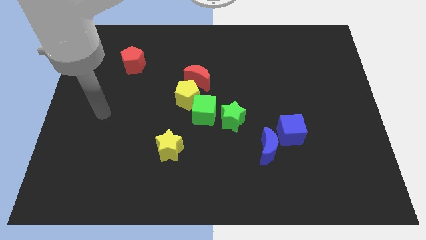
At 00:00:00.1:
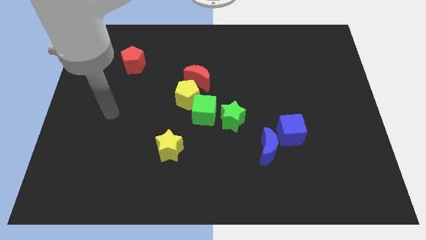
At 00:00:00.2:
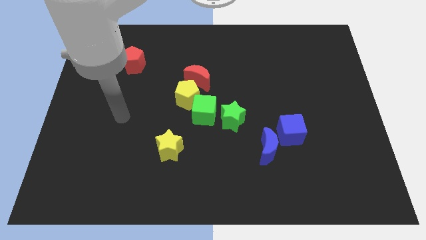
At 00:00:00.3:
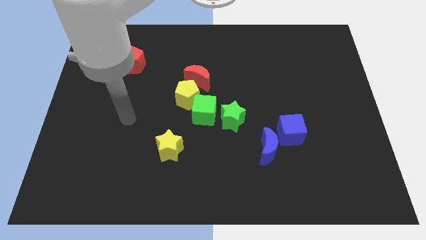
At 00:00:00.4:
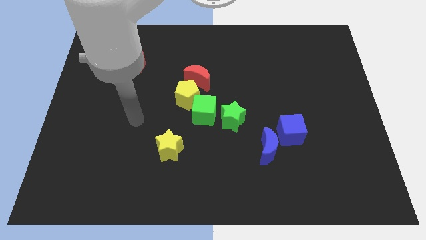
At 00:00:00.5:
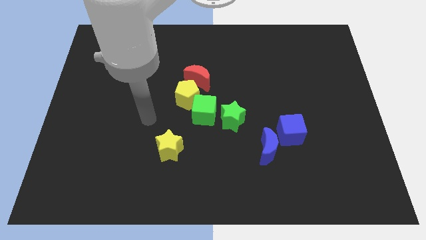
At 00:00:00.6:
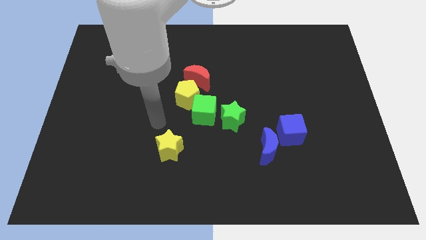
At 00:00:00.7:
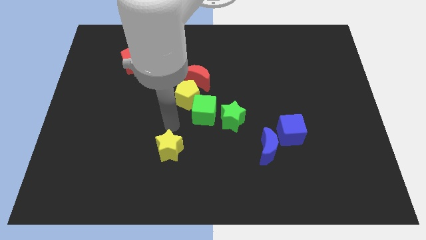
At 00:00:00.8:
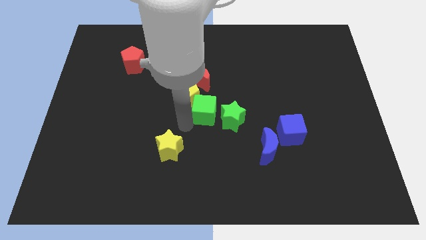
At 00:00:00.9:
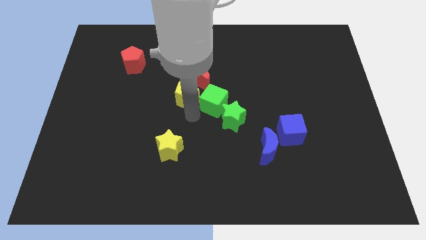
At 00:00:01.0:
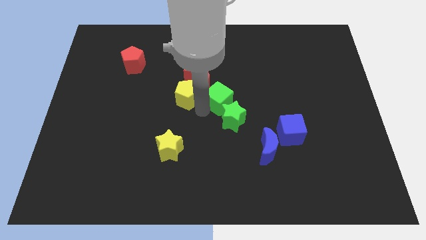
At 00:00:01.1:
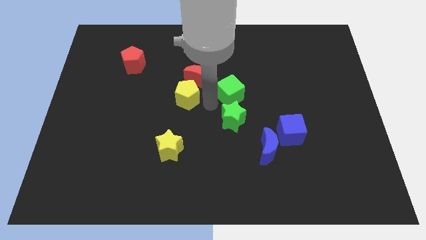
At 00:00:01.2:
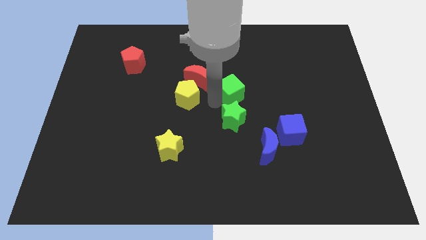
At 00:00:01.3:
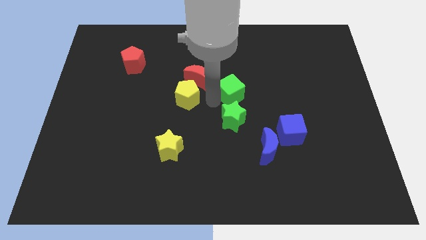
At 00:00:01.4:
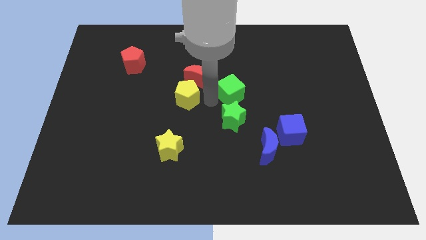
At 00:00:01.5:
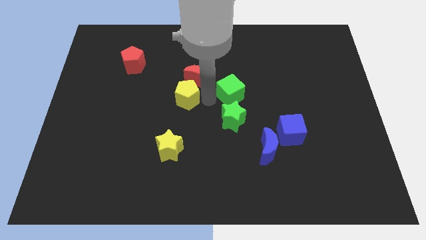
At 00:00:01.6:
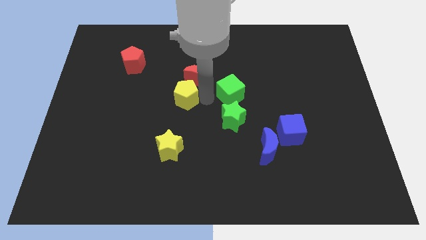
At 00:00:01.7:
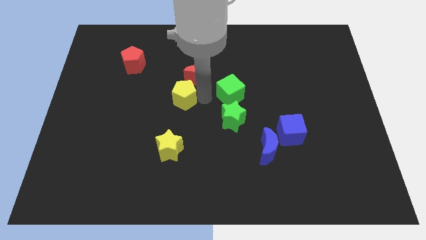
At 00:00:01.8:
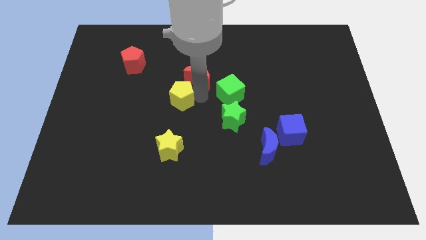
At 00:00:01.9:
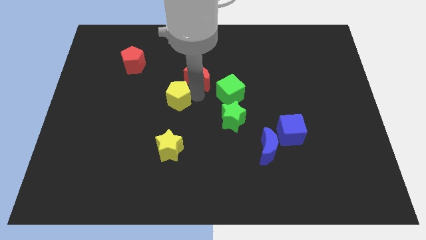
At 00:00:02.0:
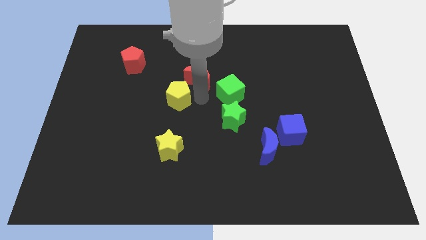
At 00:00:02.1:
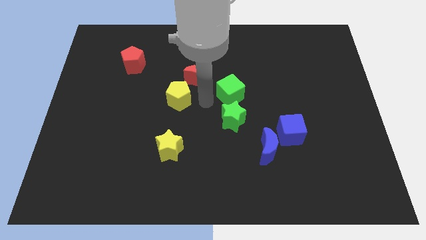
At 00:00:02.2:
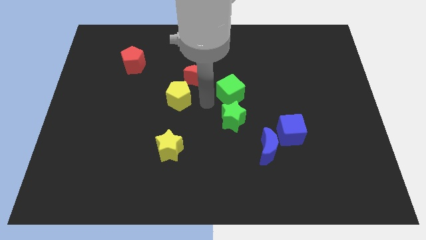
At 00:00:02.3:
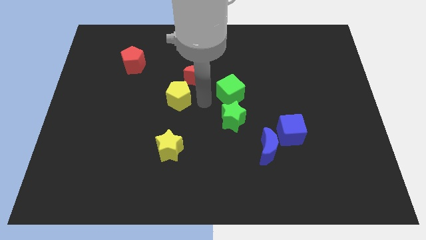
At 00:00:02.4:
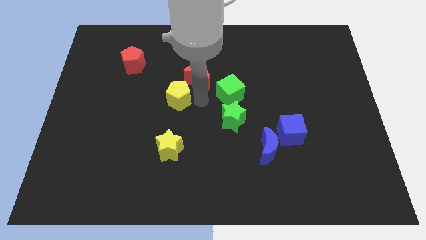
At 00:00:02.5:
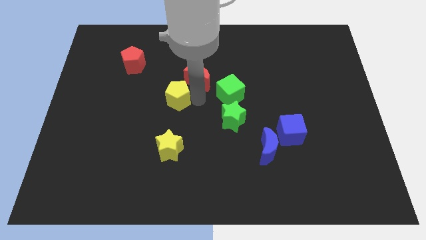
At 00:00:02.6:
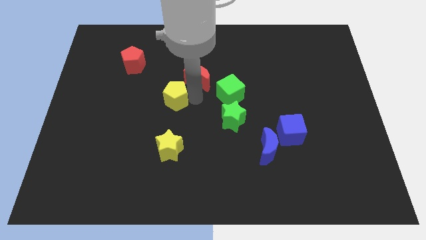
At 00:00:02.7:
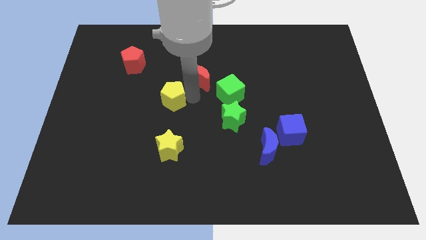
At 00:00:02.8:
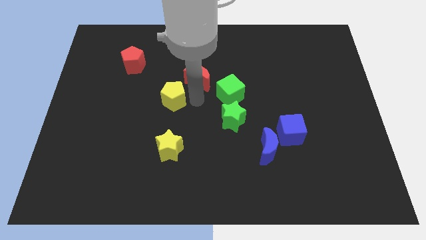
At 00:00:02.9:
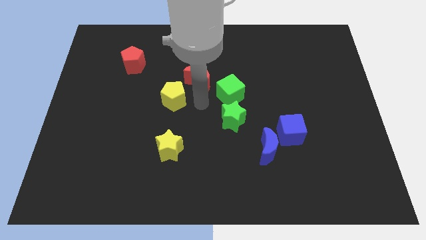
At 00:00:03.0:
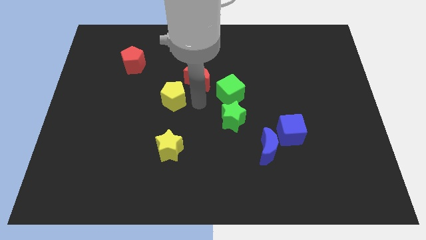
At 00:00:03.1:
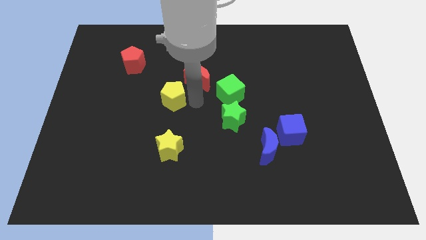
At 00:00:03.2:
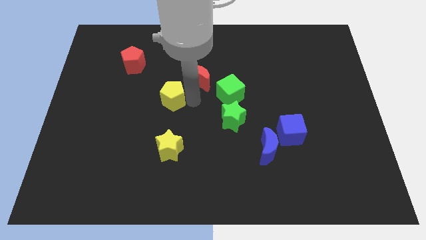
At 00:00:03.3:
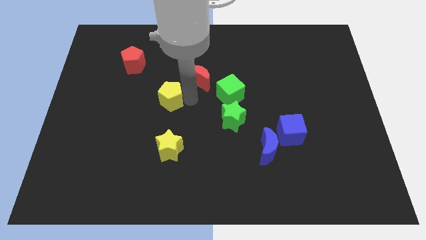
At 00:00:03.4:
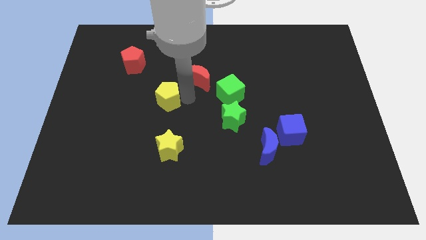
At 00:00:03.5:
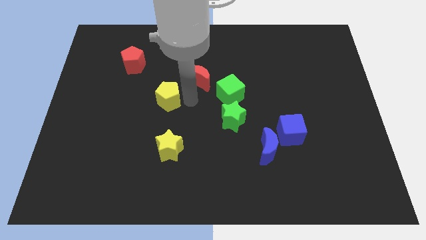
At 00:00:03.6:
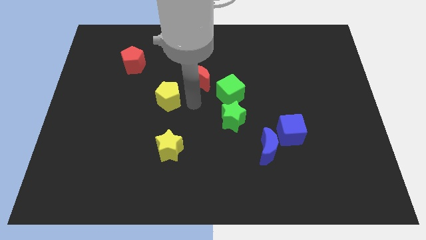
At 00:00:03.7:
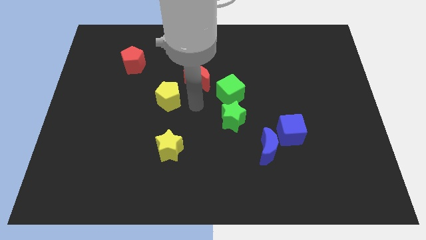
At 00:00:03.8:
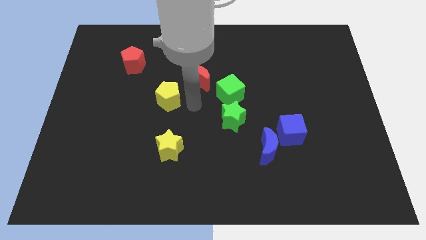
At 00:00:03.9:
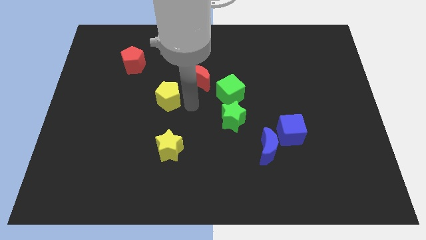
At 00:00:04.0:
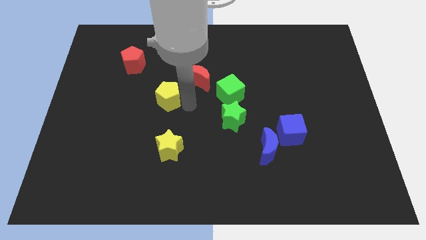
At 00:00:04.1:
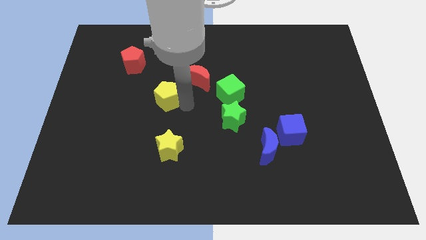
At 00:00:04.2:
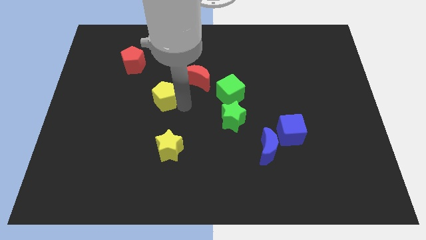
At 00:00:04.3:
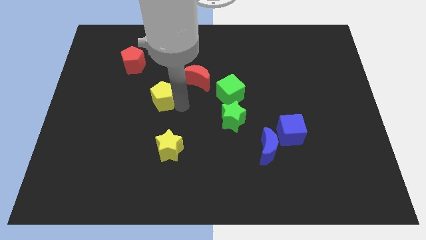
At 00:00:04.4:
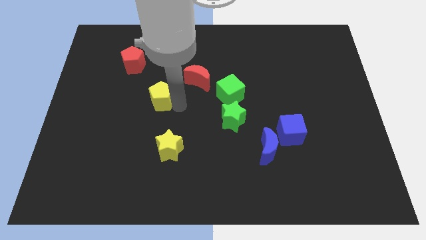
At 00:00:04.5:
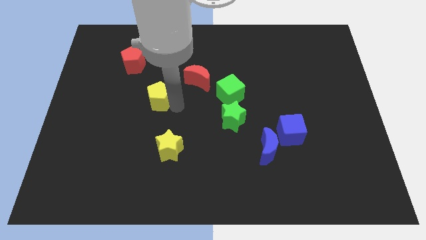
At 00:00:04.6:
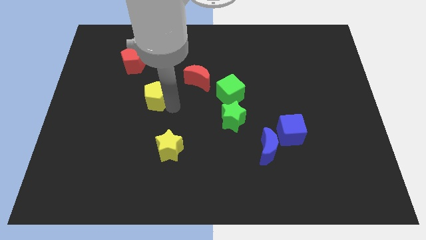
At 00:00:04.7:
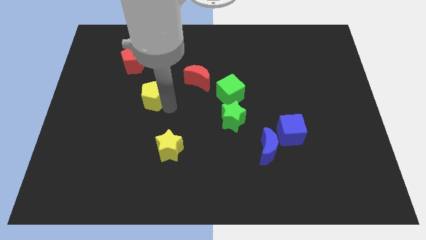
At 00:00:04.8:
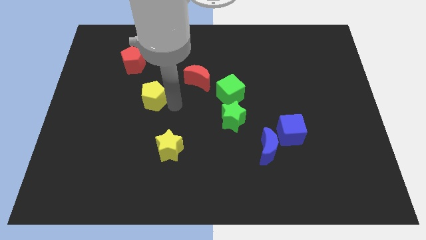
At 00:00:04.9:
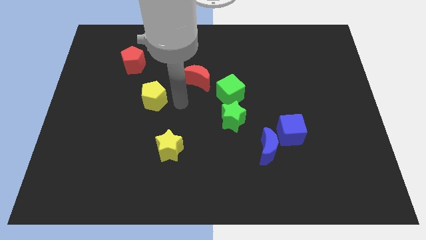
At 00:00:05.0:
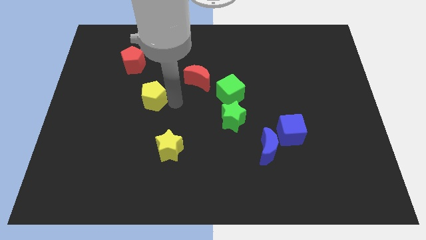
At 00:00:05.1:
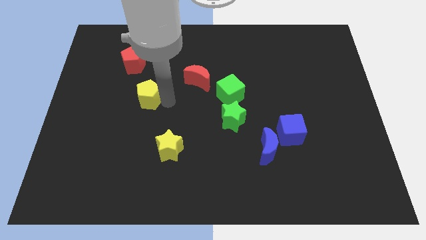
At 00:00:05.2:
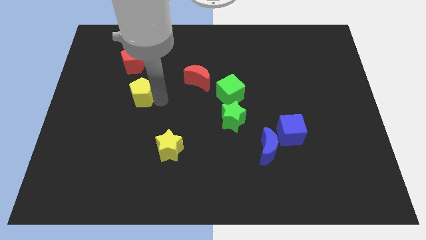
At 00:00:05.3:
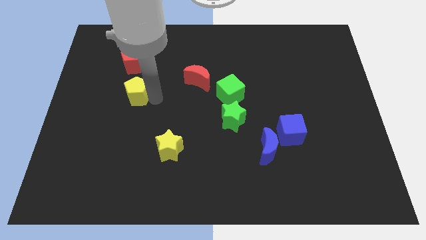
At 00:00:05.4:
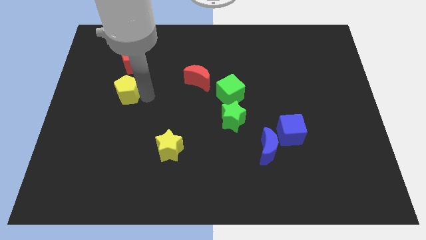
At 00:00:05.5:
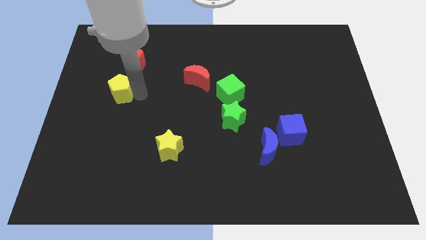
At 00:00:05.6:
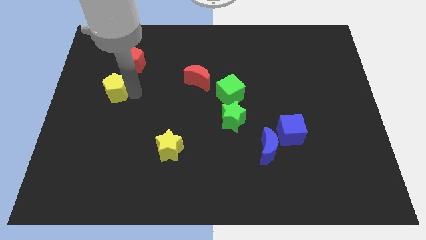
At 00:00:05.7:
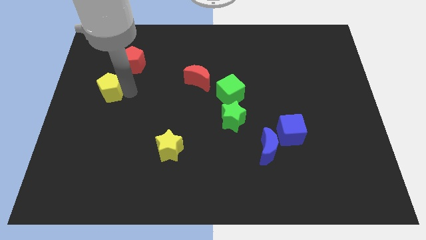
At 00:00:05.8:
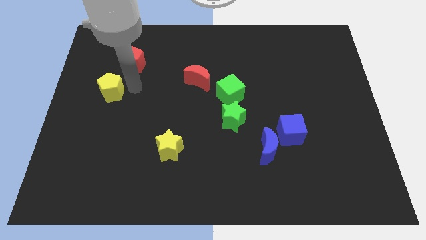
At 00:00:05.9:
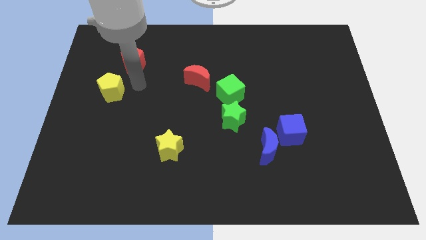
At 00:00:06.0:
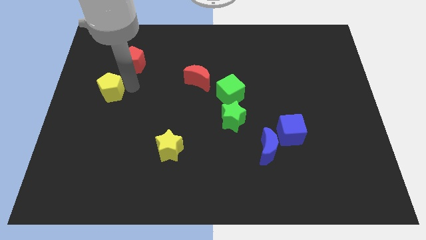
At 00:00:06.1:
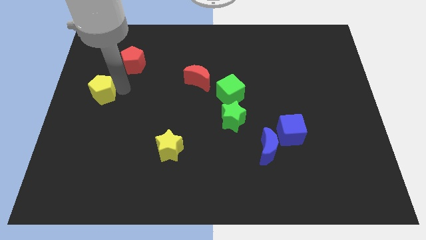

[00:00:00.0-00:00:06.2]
push the yellow pentagon to the center left
